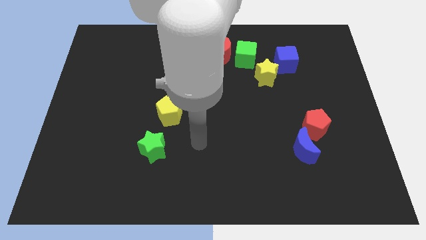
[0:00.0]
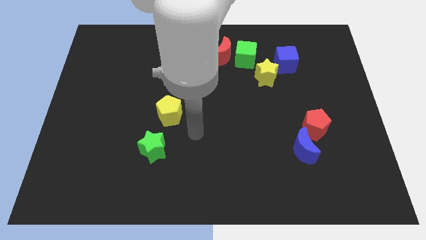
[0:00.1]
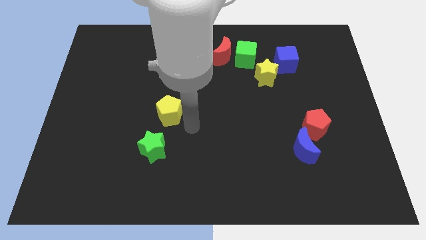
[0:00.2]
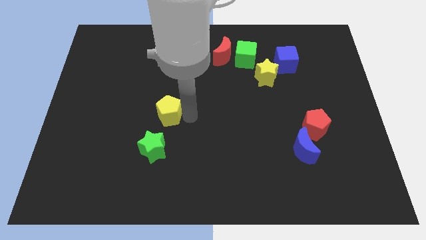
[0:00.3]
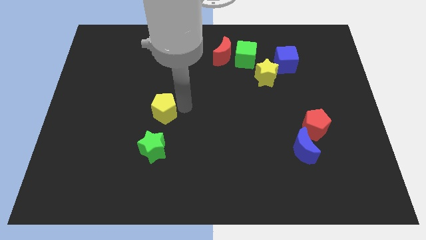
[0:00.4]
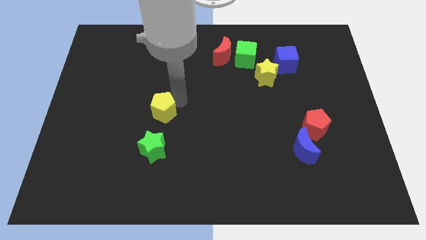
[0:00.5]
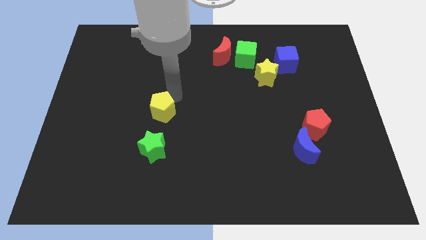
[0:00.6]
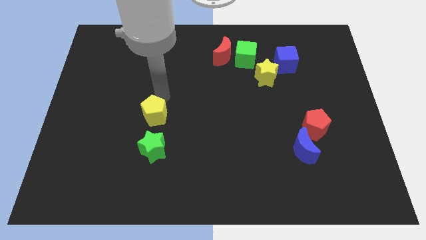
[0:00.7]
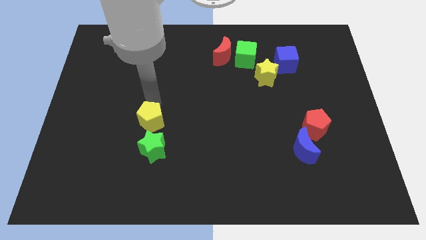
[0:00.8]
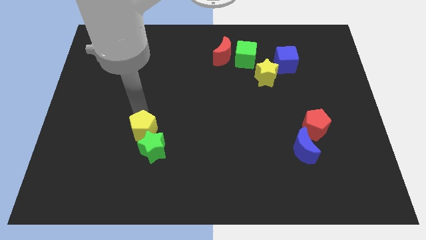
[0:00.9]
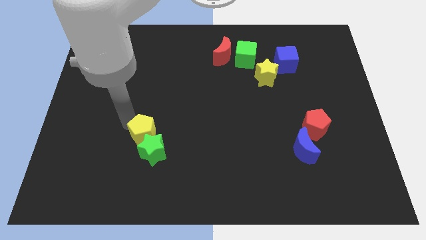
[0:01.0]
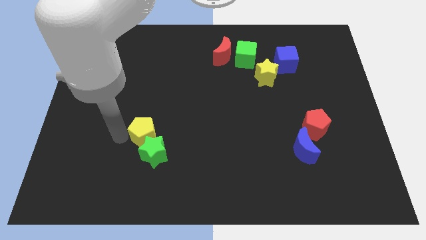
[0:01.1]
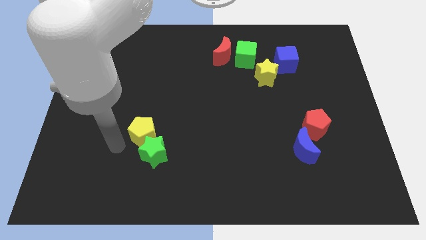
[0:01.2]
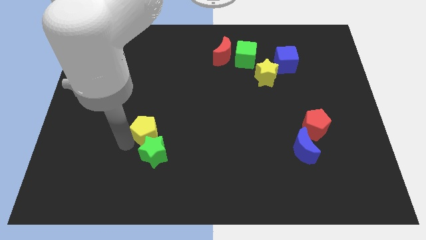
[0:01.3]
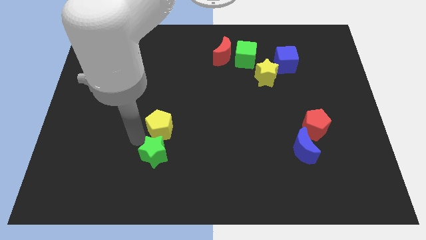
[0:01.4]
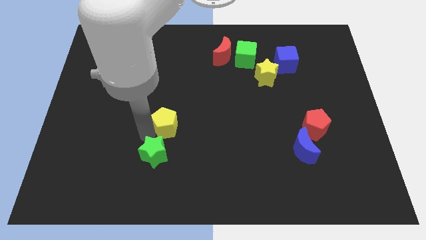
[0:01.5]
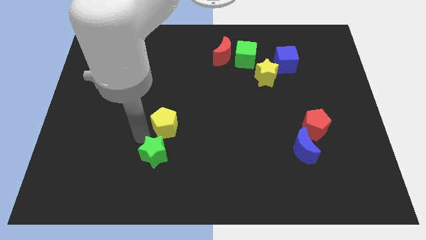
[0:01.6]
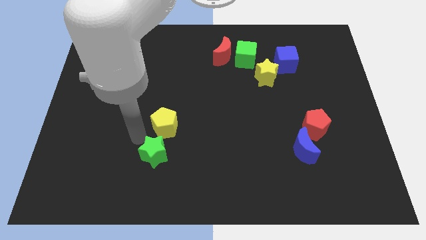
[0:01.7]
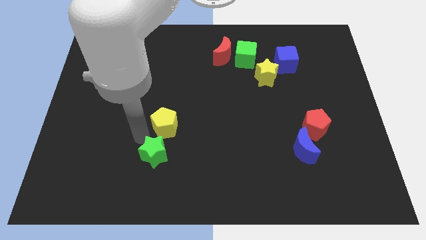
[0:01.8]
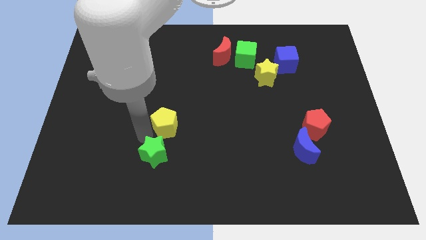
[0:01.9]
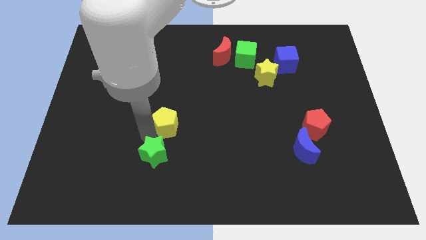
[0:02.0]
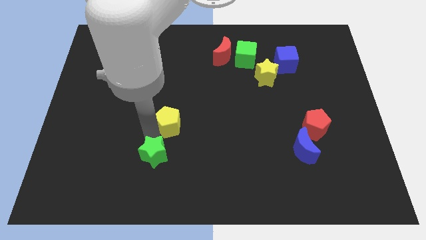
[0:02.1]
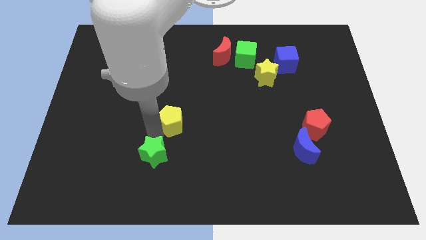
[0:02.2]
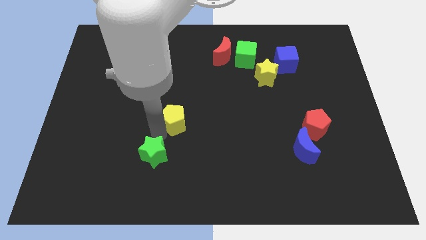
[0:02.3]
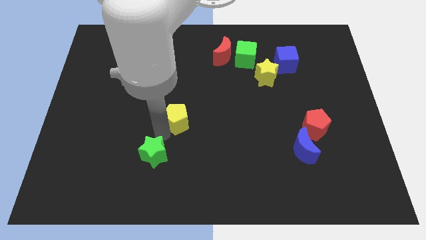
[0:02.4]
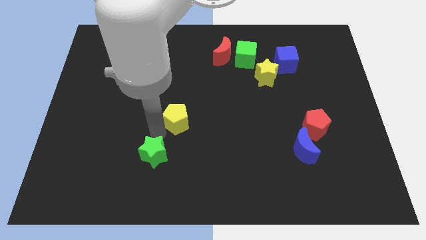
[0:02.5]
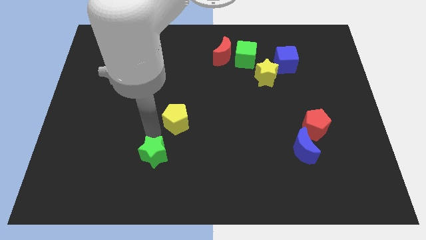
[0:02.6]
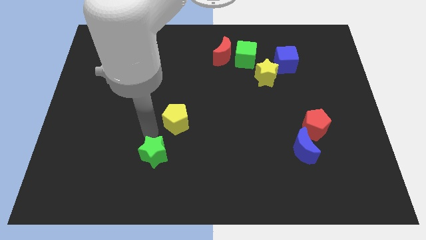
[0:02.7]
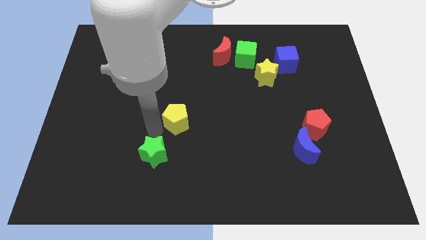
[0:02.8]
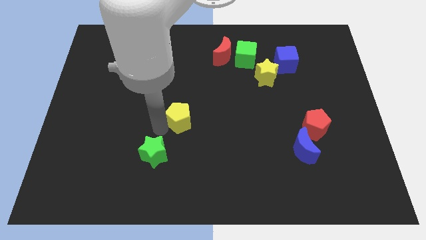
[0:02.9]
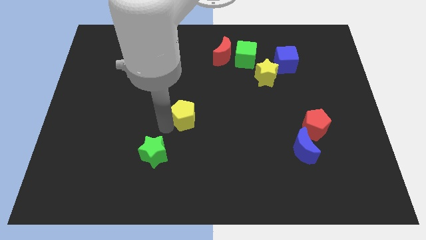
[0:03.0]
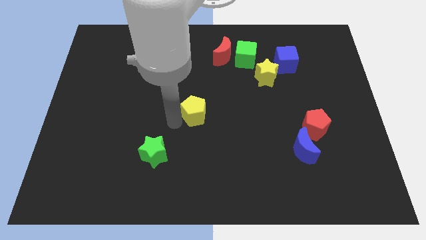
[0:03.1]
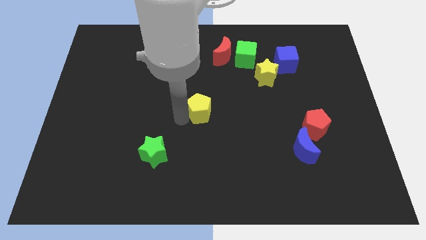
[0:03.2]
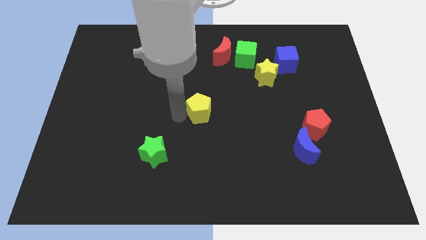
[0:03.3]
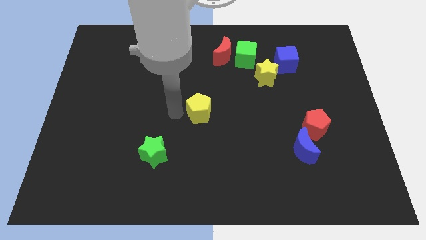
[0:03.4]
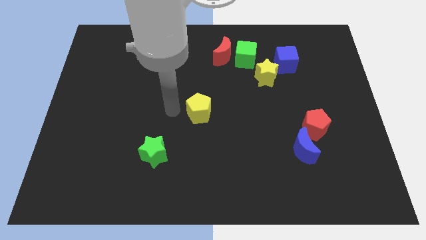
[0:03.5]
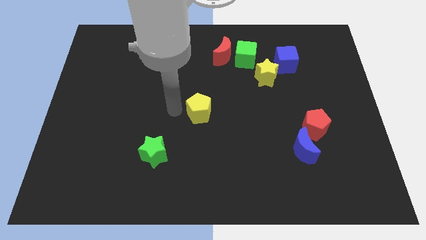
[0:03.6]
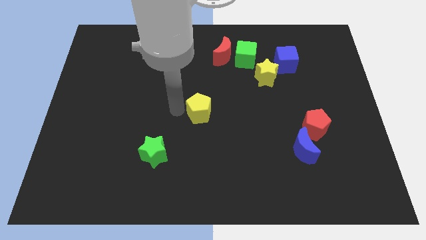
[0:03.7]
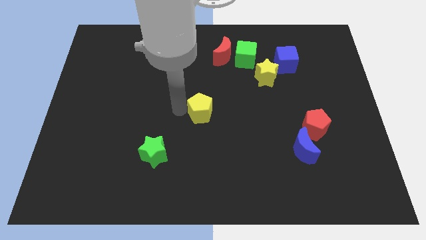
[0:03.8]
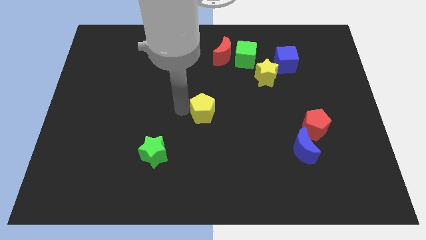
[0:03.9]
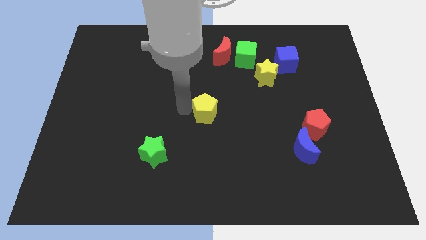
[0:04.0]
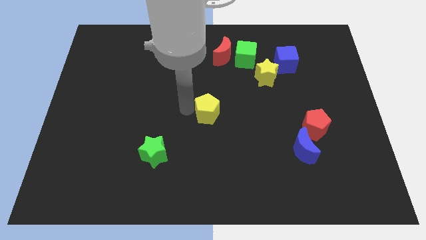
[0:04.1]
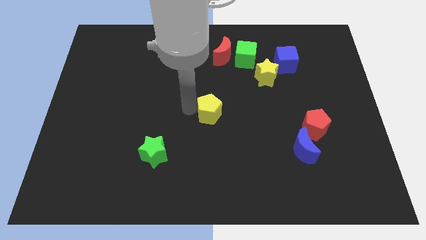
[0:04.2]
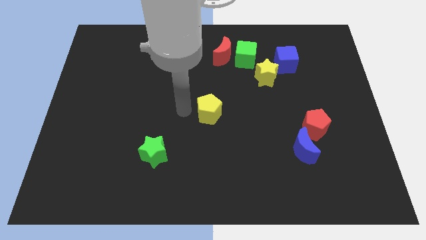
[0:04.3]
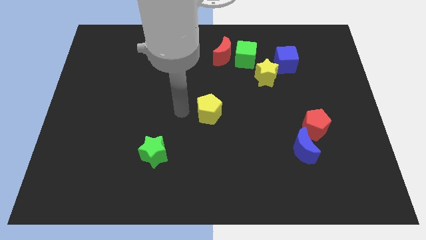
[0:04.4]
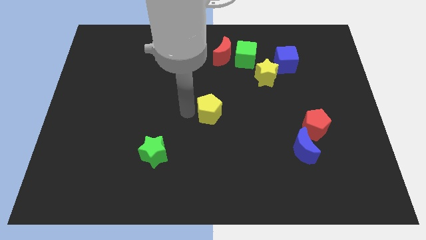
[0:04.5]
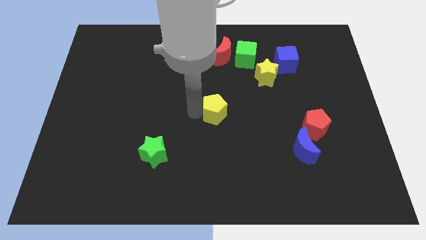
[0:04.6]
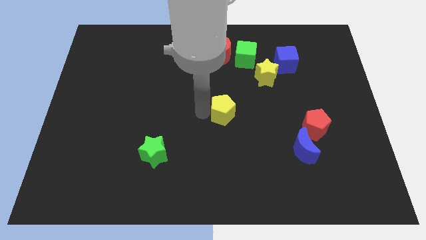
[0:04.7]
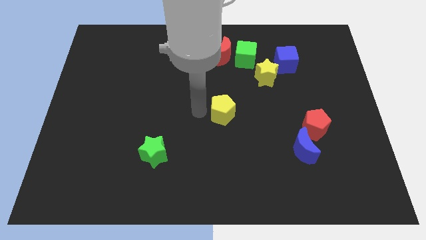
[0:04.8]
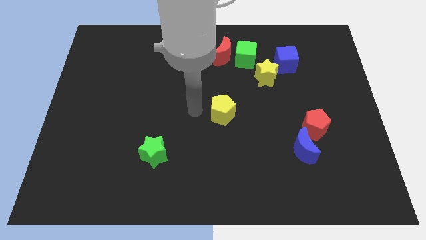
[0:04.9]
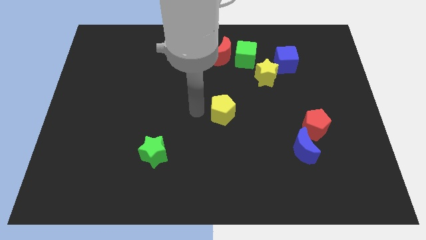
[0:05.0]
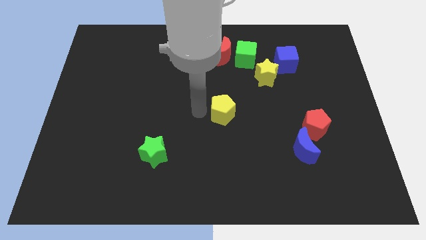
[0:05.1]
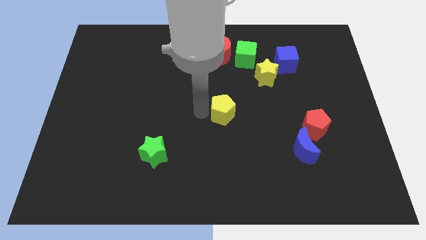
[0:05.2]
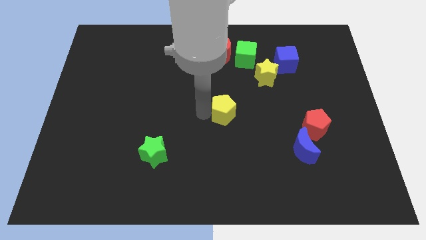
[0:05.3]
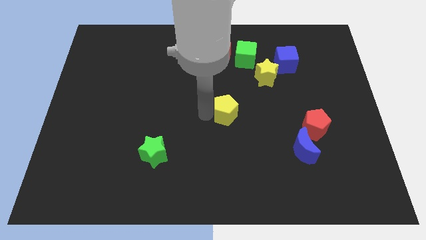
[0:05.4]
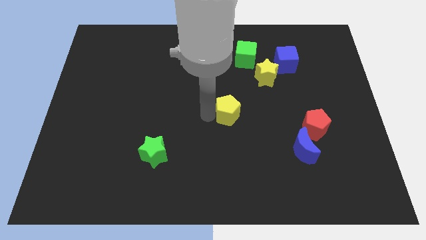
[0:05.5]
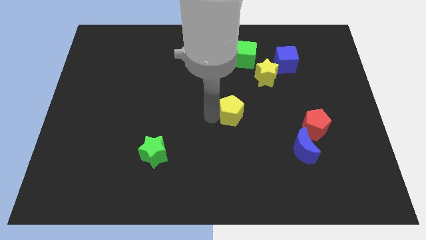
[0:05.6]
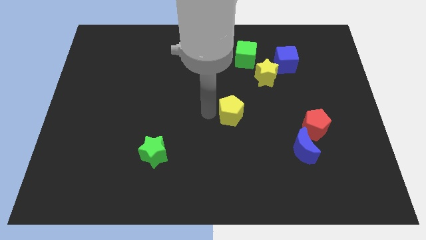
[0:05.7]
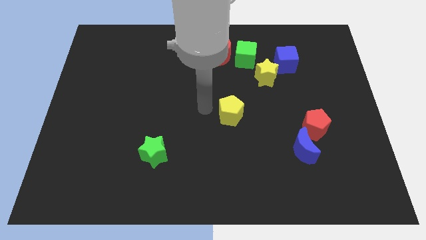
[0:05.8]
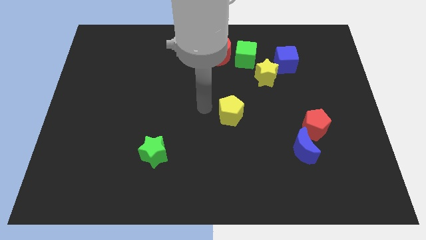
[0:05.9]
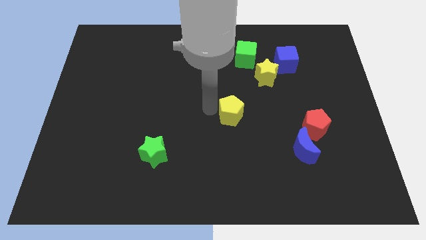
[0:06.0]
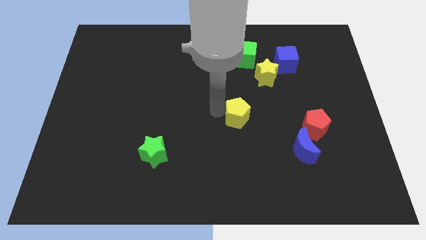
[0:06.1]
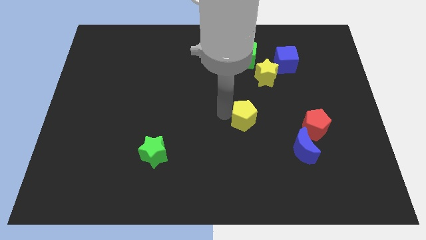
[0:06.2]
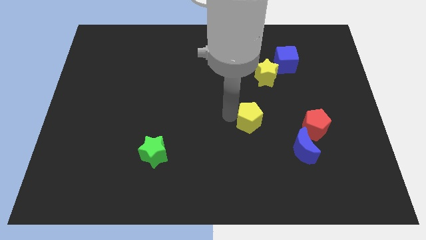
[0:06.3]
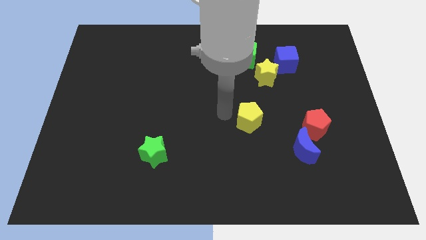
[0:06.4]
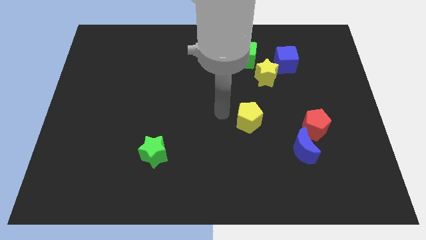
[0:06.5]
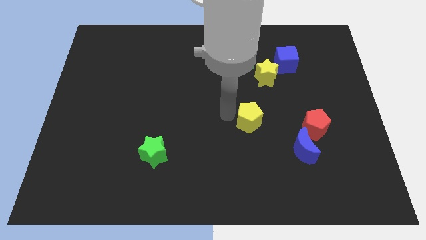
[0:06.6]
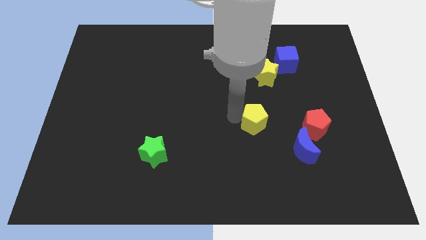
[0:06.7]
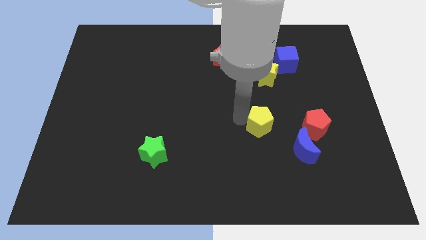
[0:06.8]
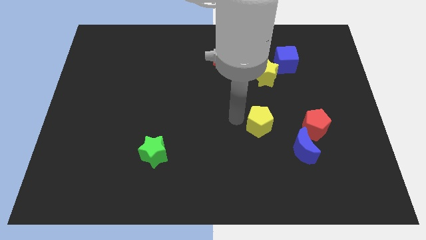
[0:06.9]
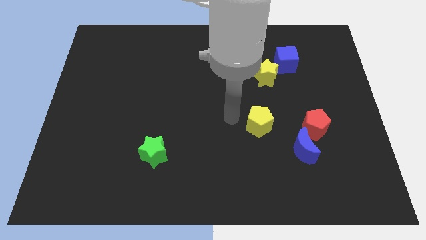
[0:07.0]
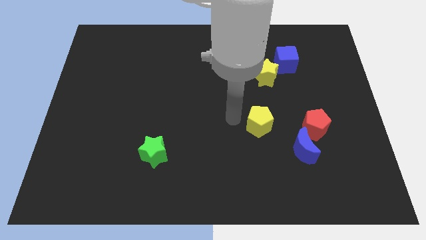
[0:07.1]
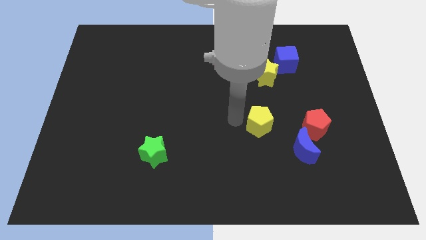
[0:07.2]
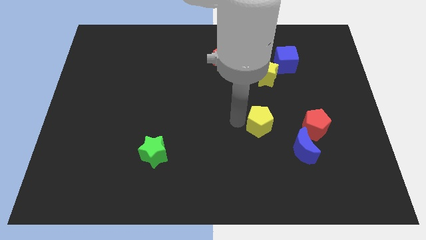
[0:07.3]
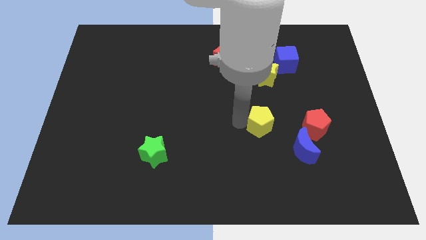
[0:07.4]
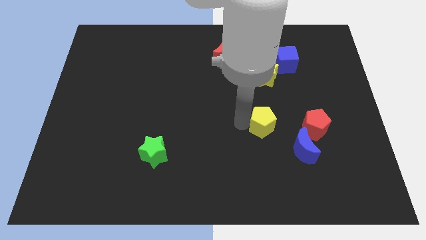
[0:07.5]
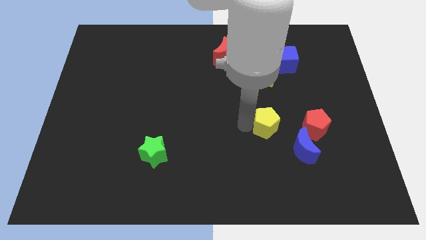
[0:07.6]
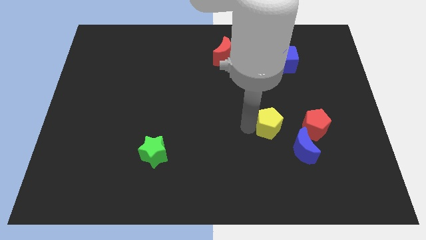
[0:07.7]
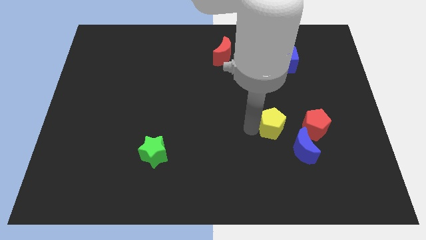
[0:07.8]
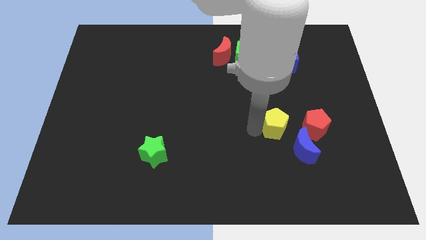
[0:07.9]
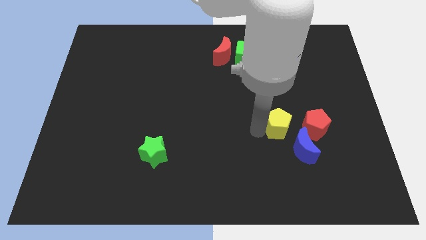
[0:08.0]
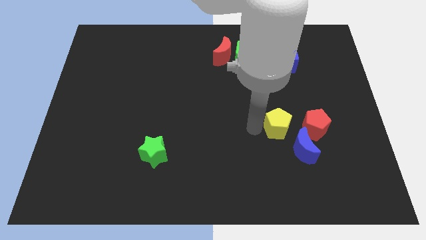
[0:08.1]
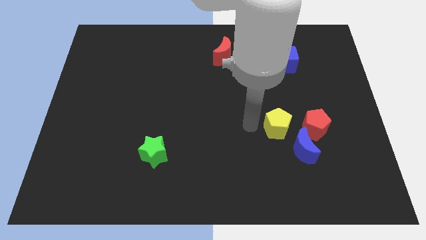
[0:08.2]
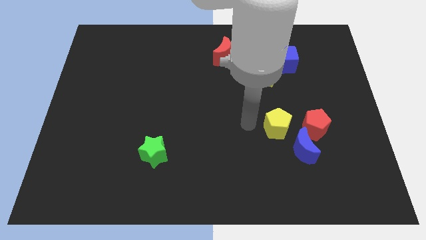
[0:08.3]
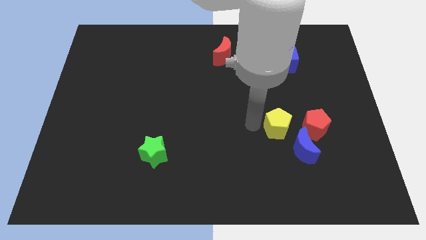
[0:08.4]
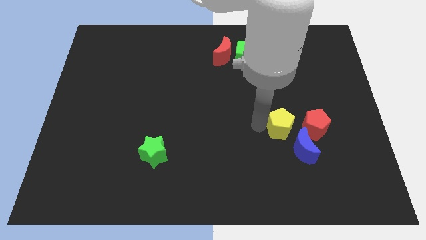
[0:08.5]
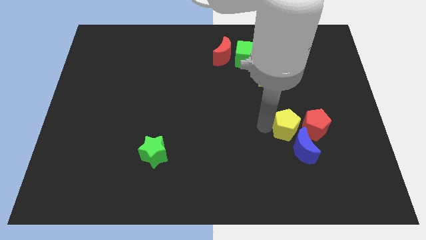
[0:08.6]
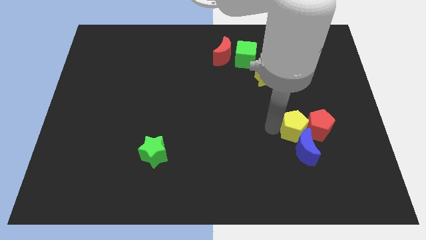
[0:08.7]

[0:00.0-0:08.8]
move the yellow pentagon next to the red pentagon
